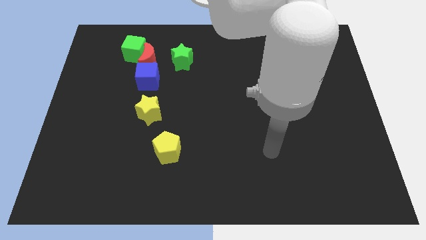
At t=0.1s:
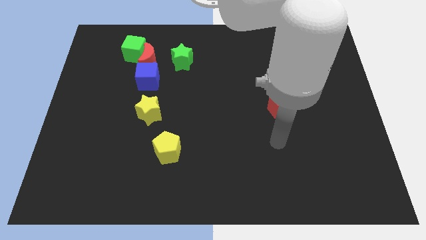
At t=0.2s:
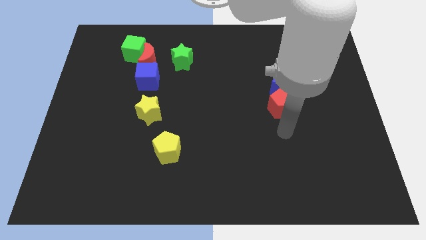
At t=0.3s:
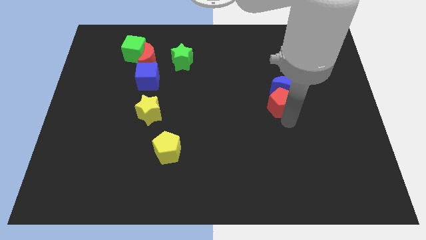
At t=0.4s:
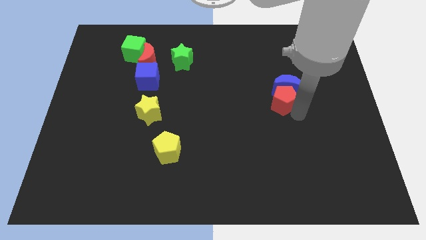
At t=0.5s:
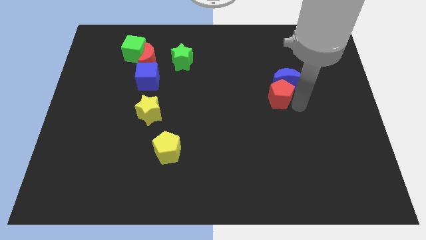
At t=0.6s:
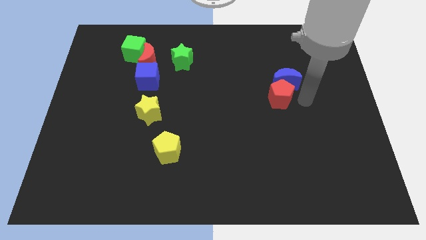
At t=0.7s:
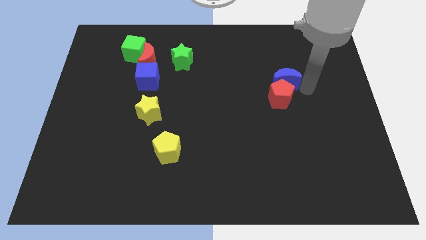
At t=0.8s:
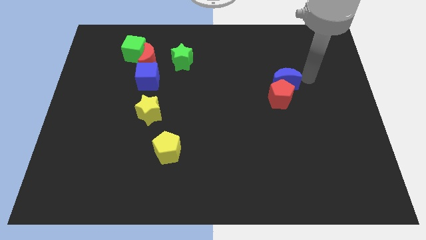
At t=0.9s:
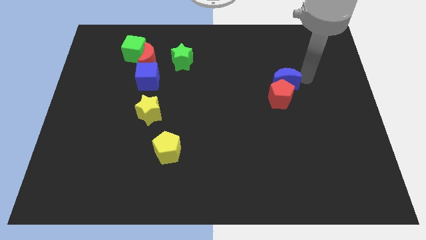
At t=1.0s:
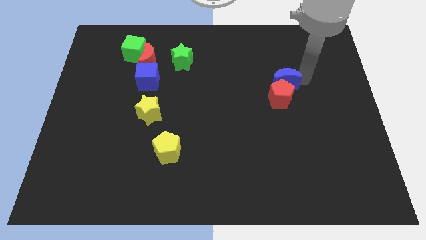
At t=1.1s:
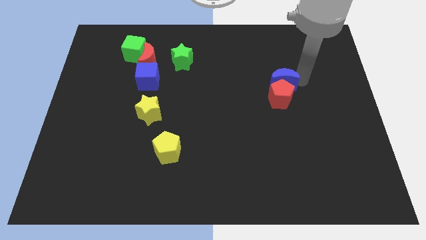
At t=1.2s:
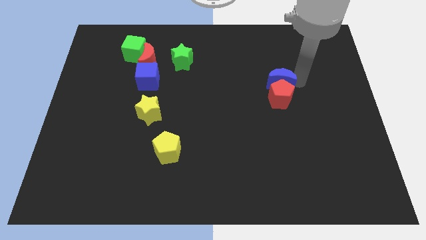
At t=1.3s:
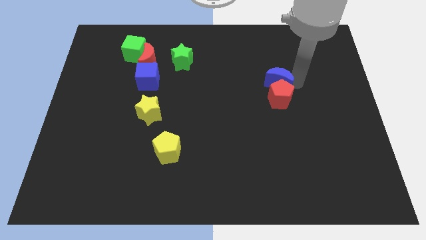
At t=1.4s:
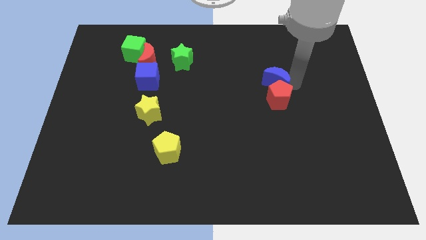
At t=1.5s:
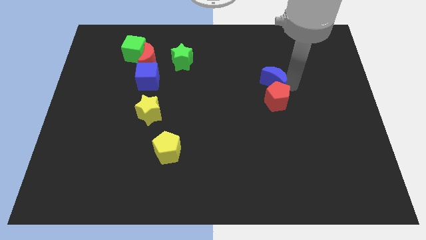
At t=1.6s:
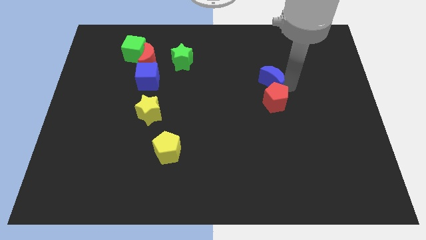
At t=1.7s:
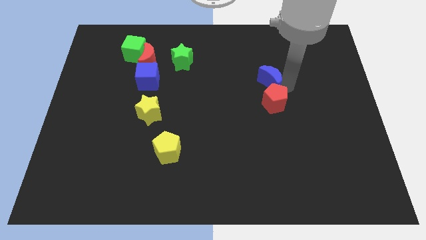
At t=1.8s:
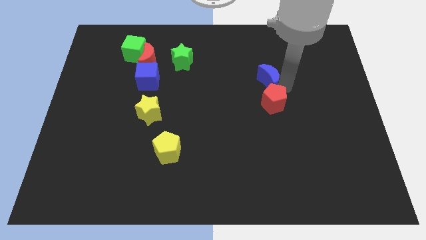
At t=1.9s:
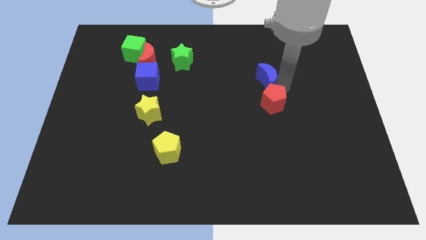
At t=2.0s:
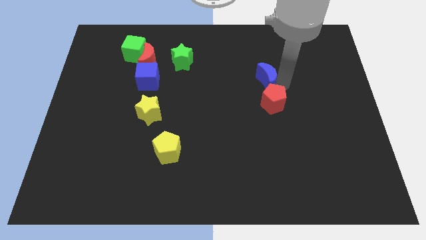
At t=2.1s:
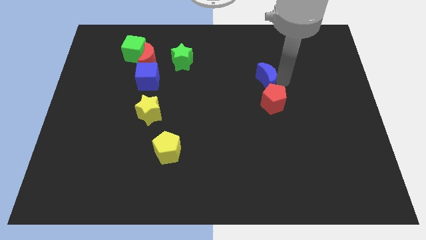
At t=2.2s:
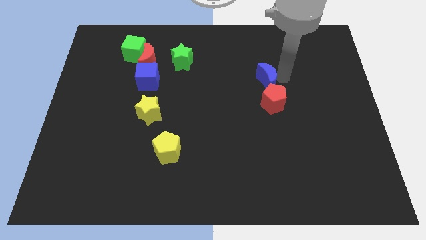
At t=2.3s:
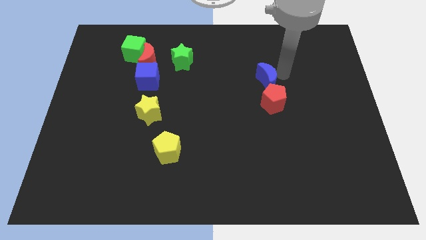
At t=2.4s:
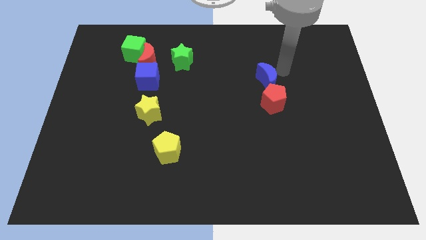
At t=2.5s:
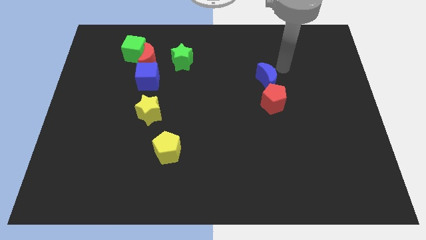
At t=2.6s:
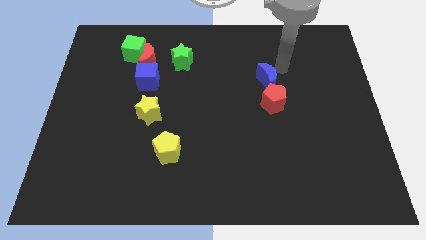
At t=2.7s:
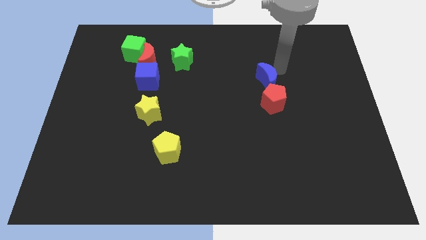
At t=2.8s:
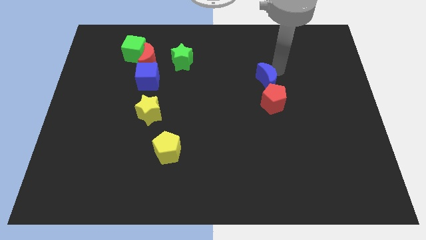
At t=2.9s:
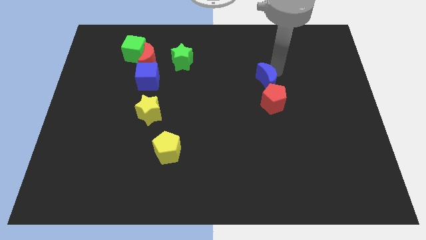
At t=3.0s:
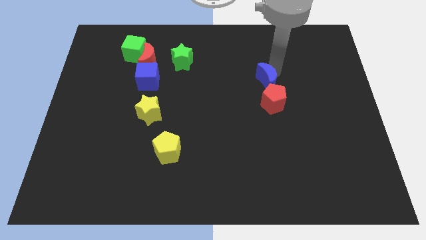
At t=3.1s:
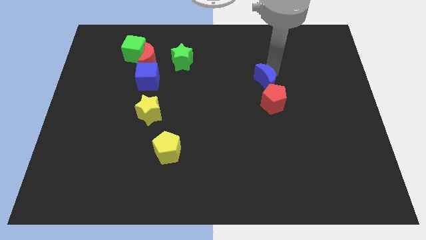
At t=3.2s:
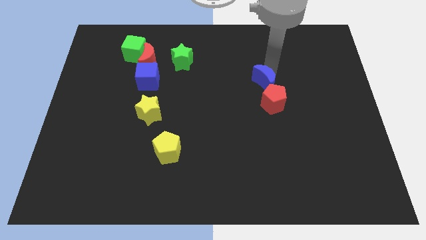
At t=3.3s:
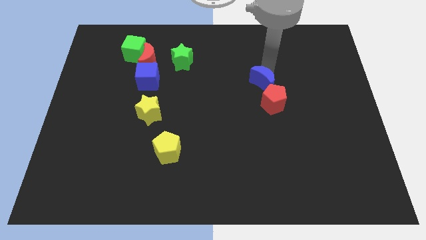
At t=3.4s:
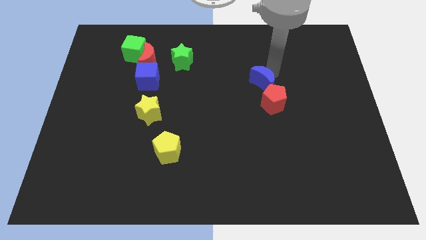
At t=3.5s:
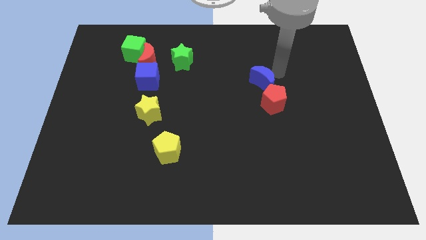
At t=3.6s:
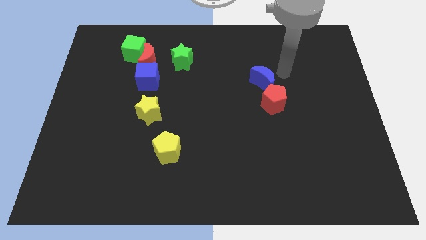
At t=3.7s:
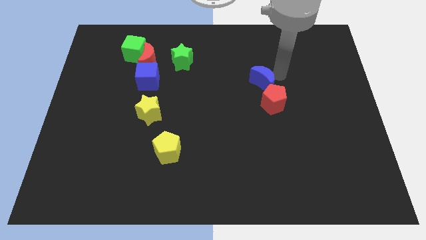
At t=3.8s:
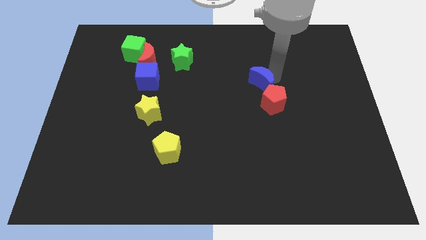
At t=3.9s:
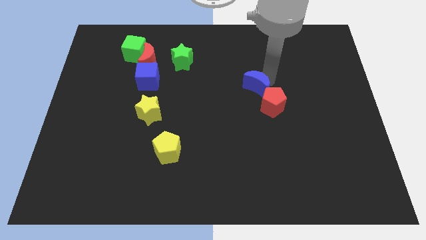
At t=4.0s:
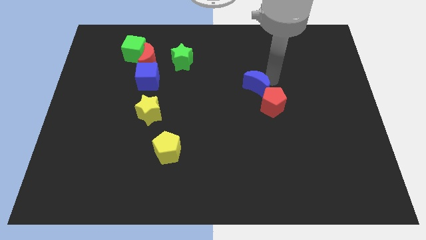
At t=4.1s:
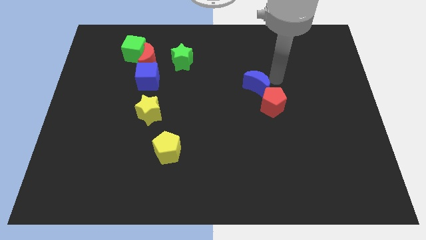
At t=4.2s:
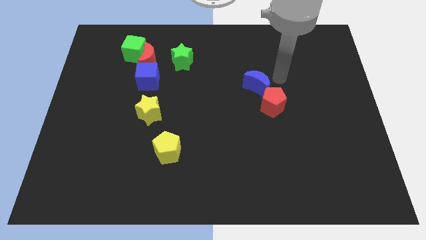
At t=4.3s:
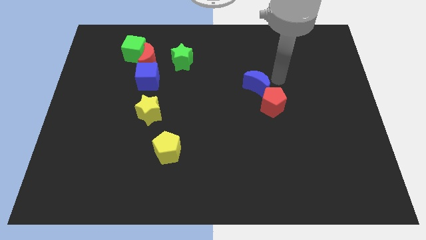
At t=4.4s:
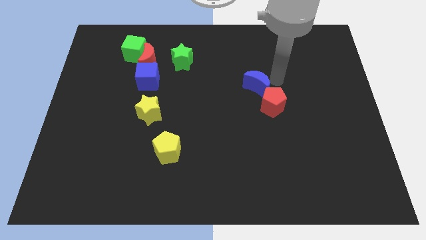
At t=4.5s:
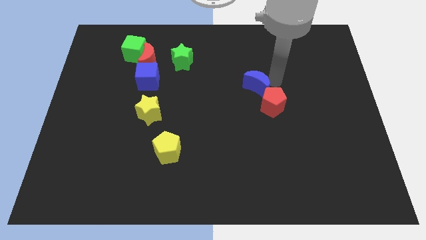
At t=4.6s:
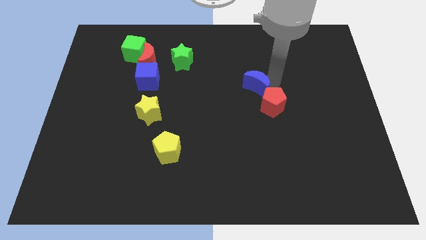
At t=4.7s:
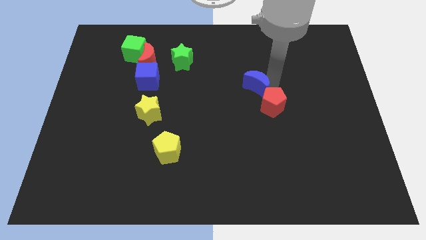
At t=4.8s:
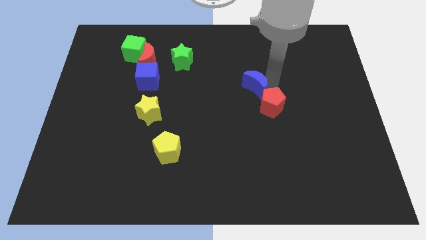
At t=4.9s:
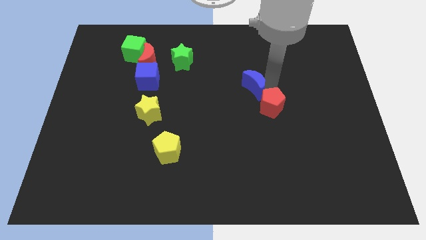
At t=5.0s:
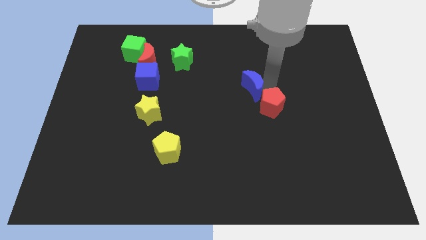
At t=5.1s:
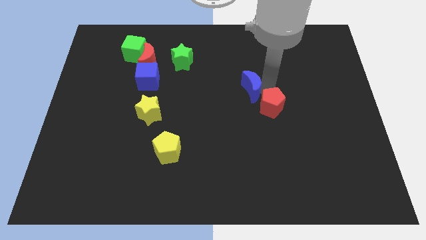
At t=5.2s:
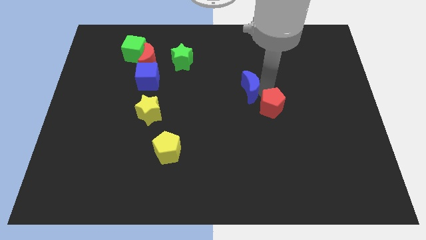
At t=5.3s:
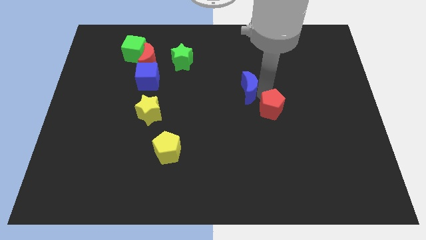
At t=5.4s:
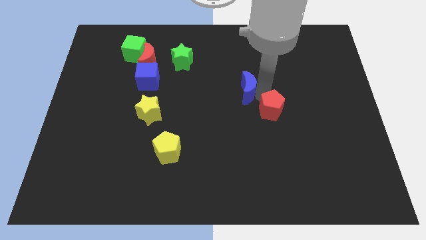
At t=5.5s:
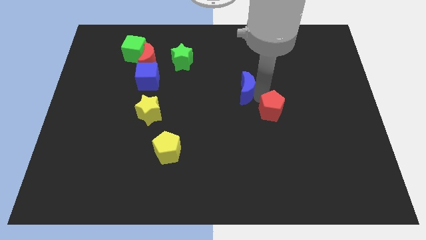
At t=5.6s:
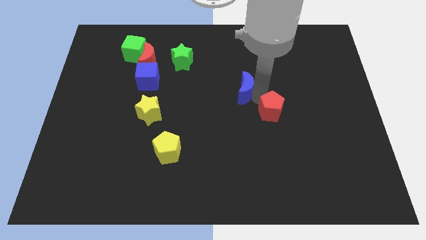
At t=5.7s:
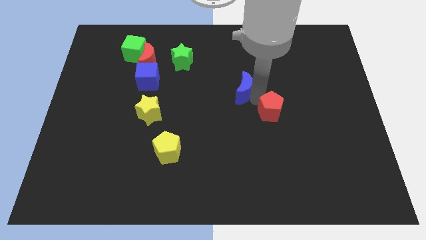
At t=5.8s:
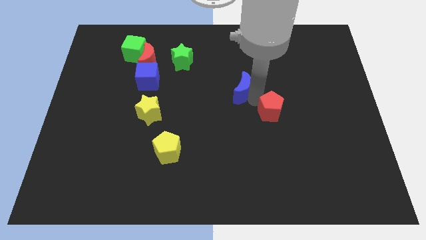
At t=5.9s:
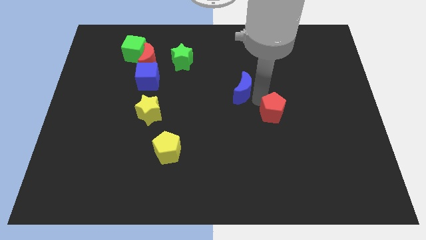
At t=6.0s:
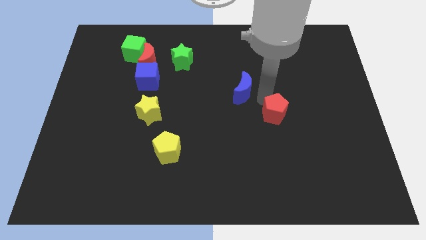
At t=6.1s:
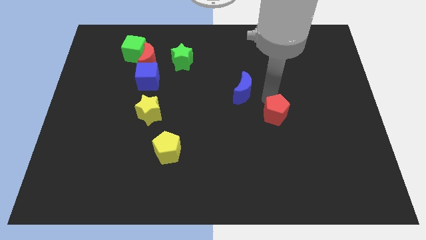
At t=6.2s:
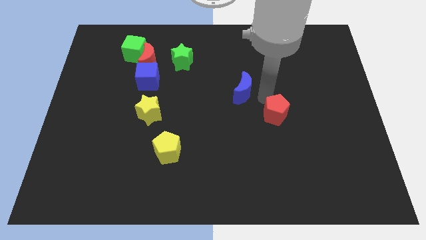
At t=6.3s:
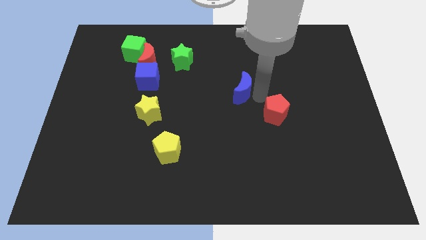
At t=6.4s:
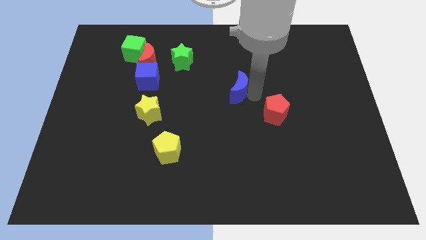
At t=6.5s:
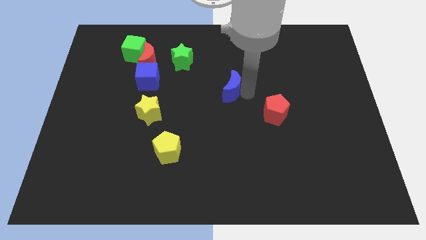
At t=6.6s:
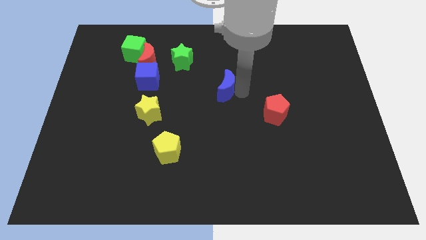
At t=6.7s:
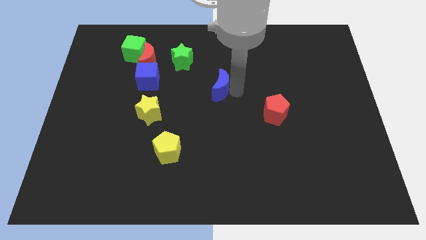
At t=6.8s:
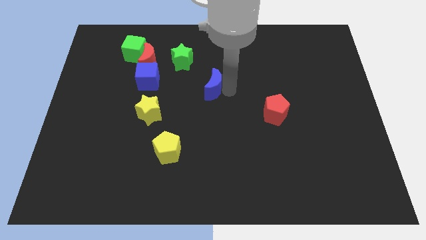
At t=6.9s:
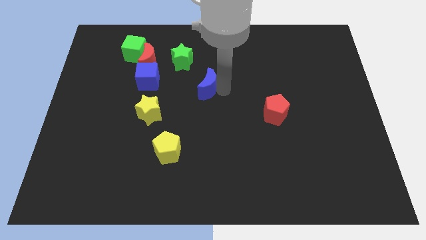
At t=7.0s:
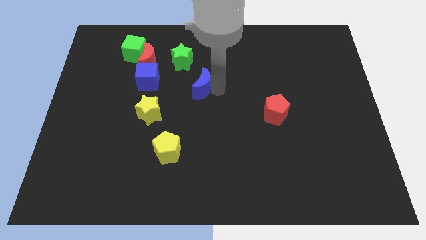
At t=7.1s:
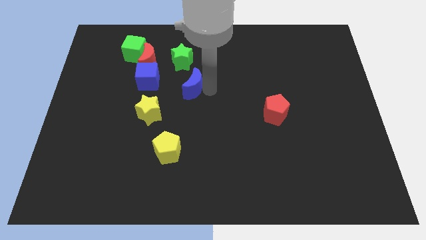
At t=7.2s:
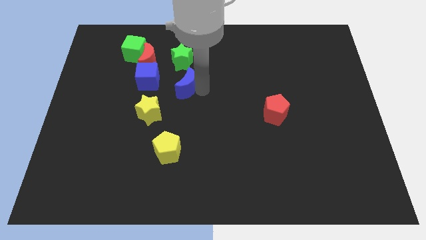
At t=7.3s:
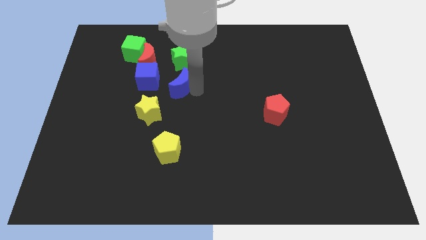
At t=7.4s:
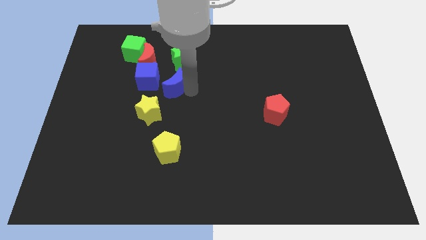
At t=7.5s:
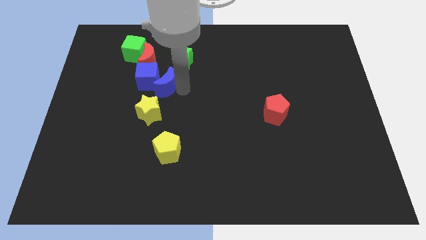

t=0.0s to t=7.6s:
move the blue moon close to the blue cube
